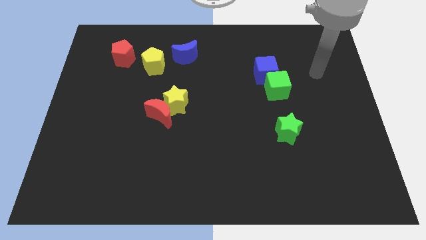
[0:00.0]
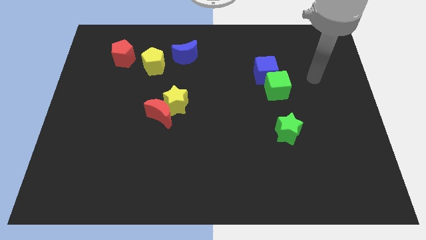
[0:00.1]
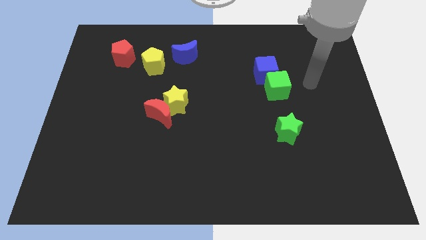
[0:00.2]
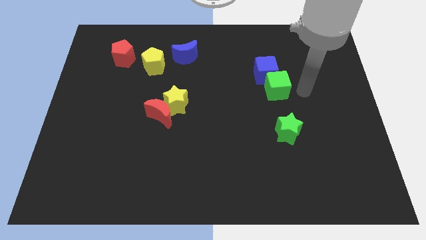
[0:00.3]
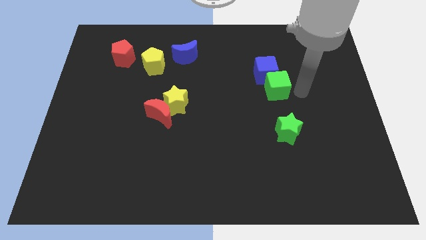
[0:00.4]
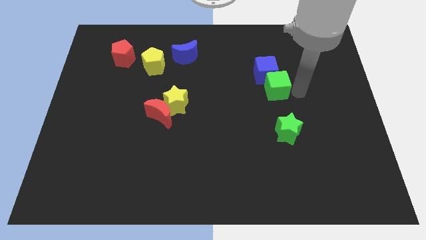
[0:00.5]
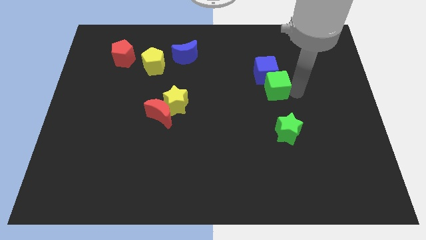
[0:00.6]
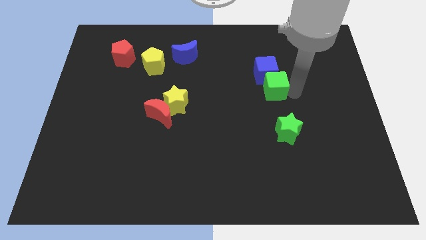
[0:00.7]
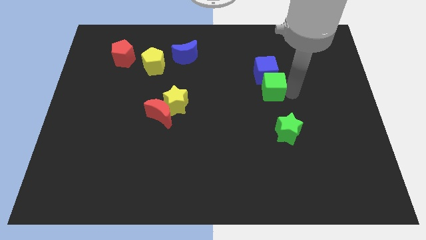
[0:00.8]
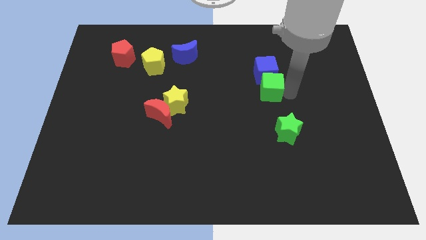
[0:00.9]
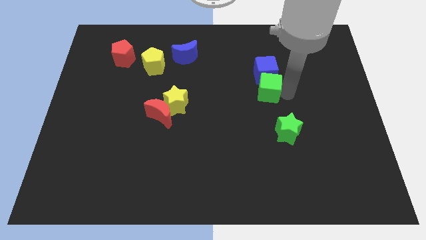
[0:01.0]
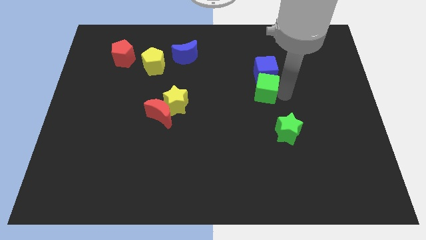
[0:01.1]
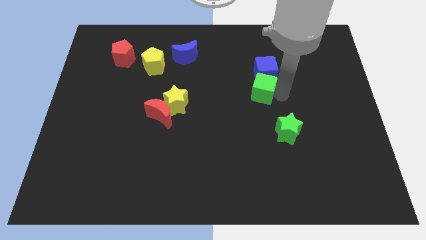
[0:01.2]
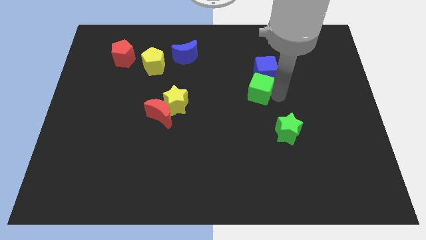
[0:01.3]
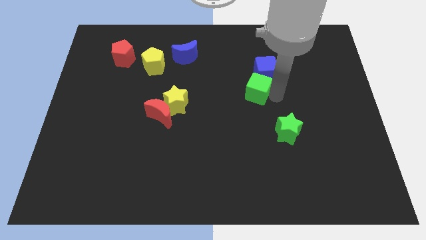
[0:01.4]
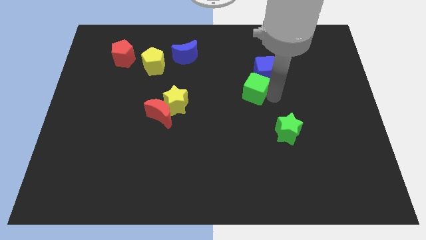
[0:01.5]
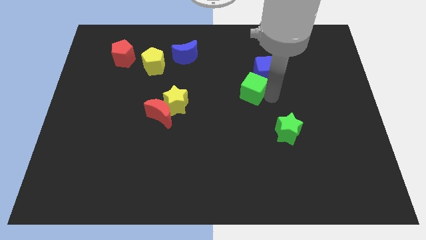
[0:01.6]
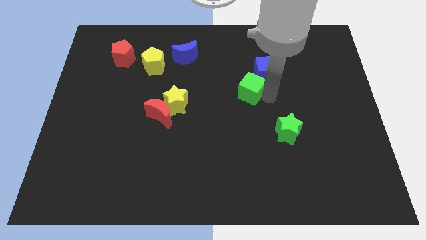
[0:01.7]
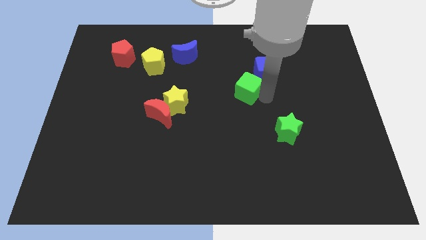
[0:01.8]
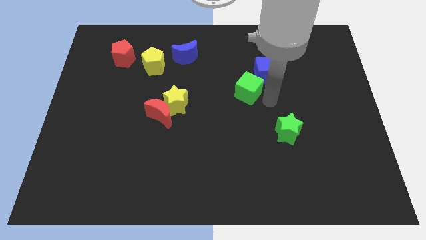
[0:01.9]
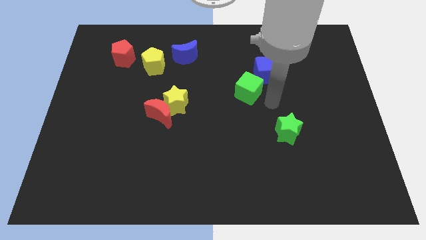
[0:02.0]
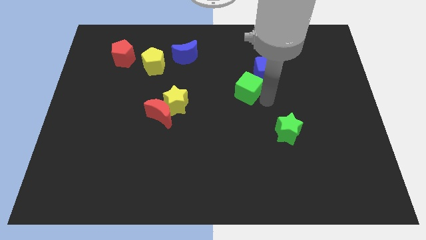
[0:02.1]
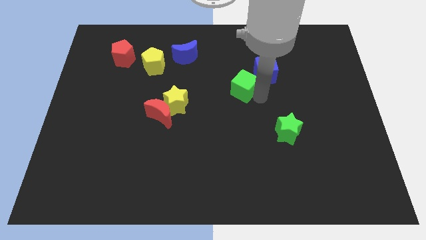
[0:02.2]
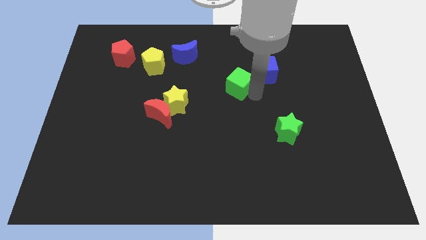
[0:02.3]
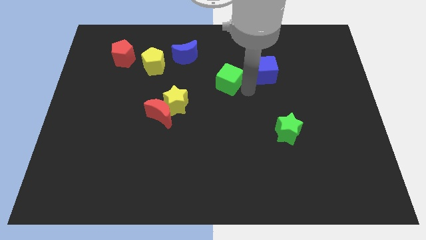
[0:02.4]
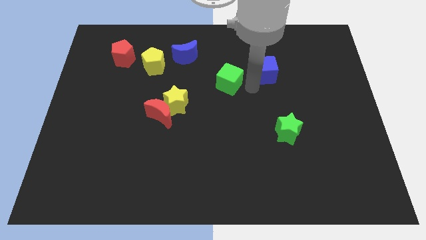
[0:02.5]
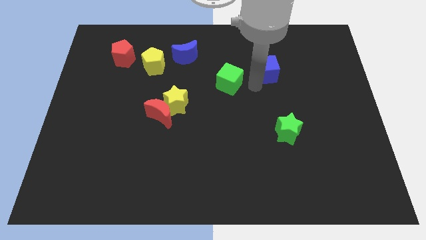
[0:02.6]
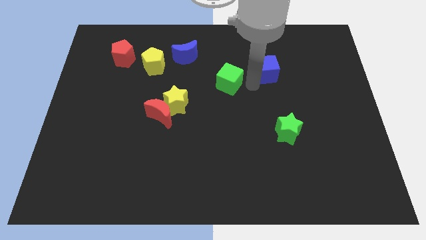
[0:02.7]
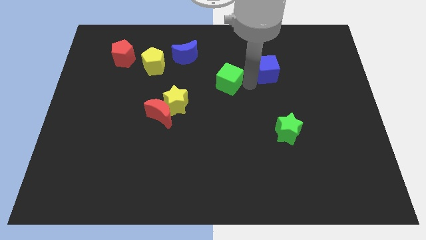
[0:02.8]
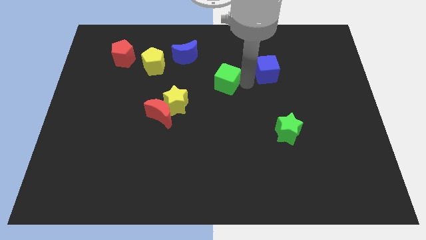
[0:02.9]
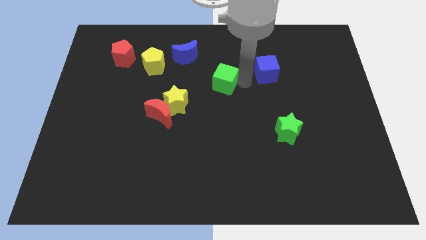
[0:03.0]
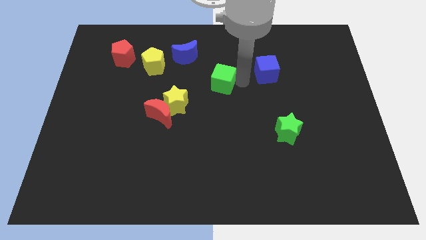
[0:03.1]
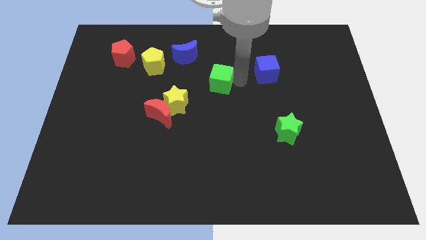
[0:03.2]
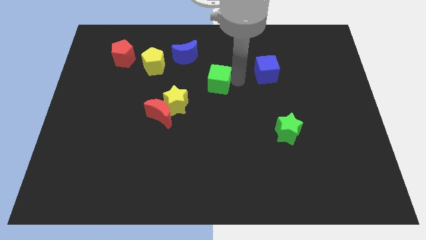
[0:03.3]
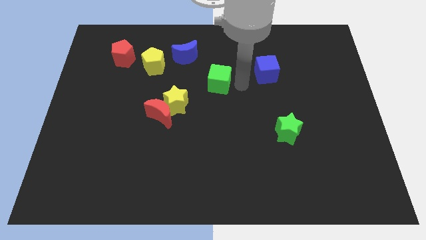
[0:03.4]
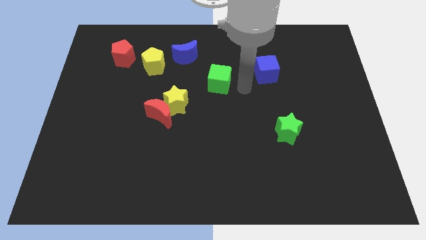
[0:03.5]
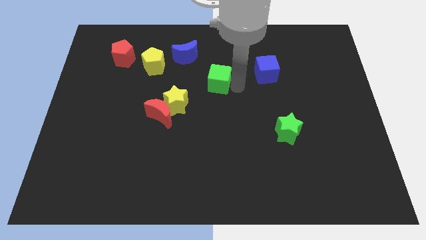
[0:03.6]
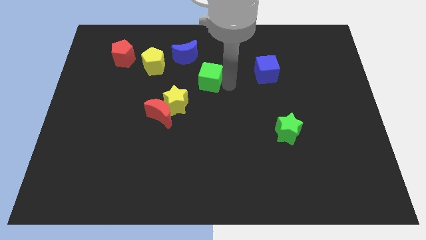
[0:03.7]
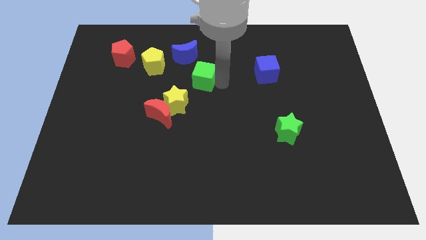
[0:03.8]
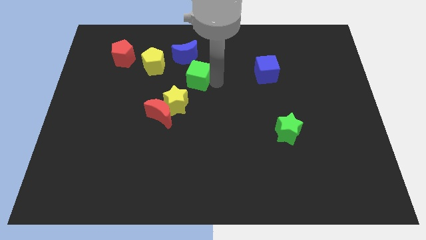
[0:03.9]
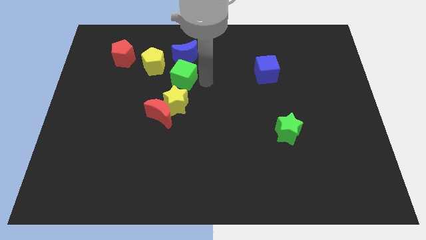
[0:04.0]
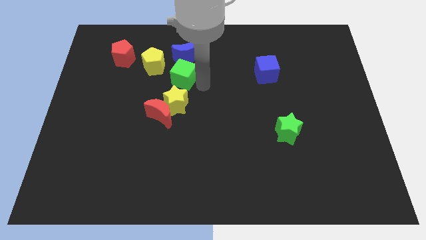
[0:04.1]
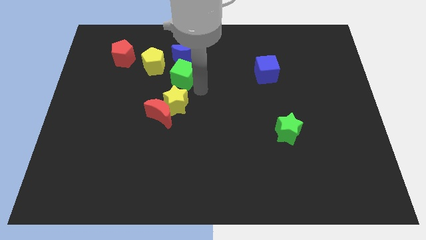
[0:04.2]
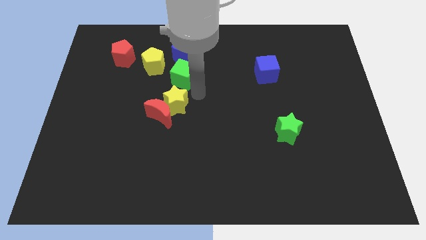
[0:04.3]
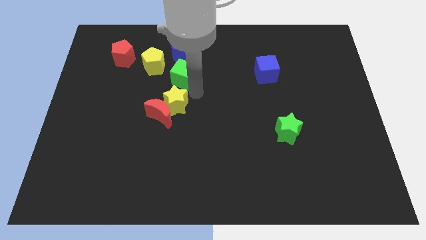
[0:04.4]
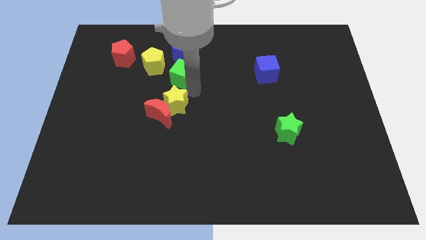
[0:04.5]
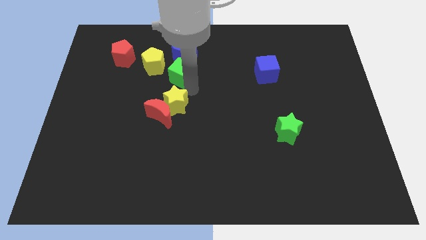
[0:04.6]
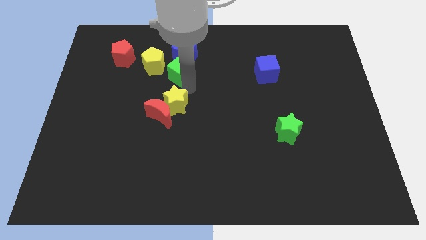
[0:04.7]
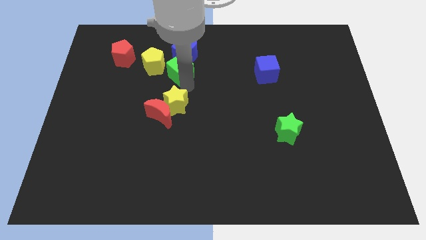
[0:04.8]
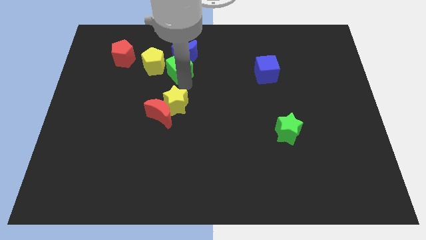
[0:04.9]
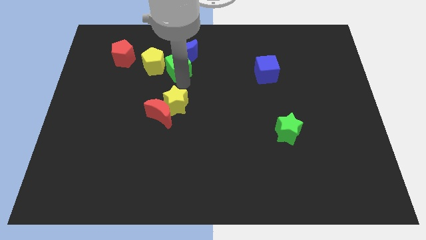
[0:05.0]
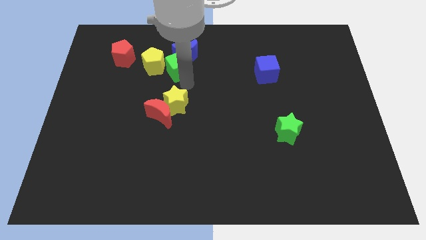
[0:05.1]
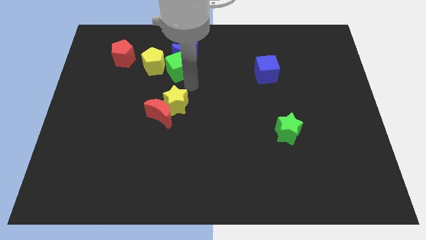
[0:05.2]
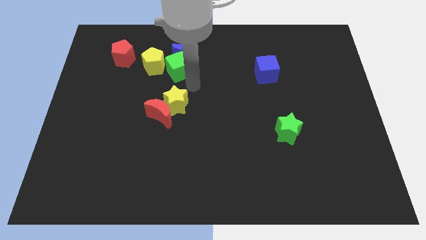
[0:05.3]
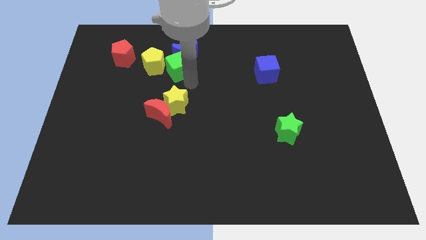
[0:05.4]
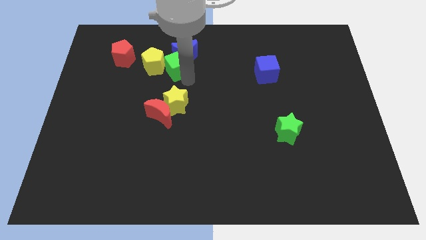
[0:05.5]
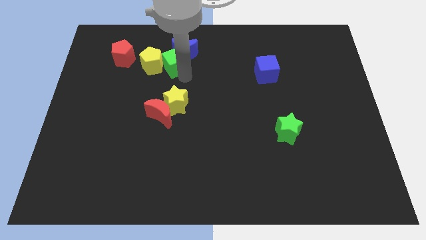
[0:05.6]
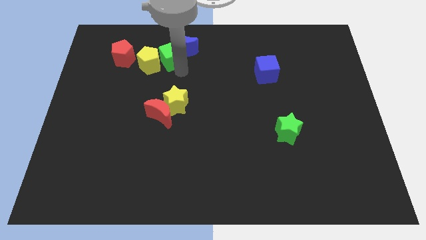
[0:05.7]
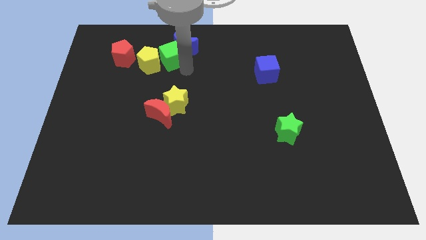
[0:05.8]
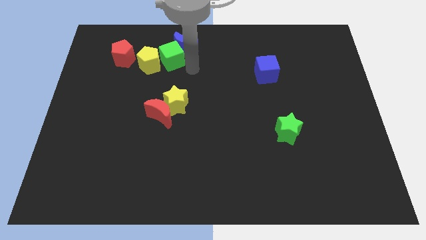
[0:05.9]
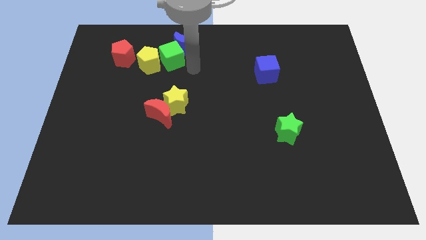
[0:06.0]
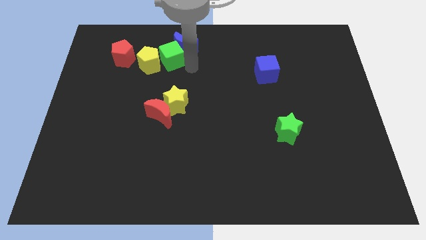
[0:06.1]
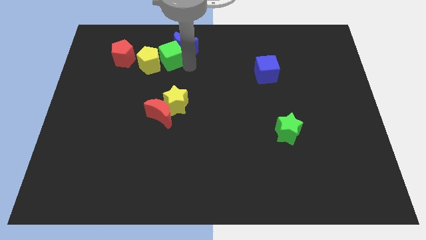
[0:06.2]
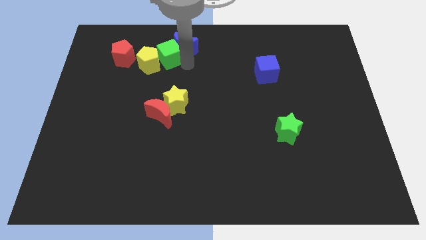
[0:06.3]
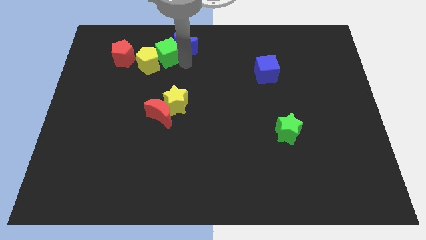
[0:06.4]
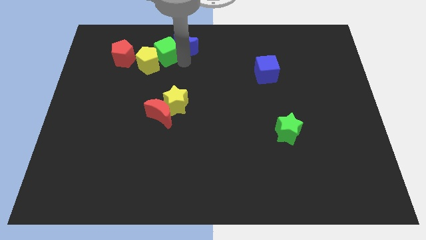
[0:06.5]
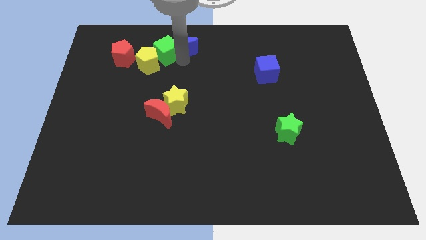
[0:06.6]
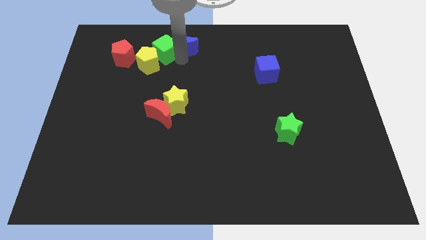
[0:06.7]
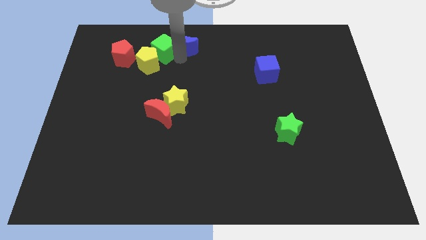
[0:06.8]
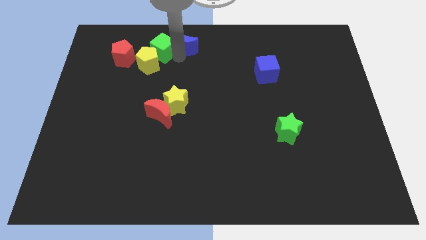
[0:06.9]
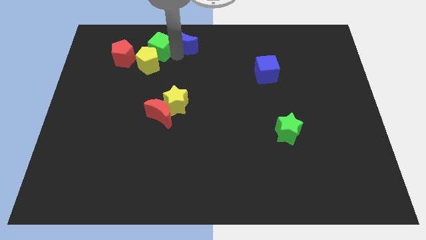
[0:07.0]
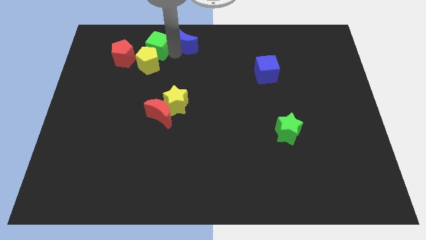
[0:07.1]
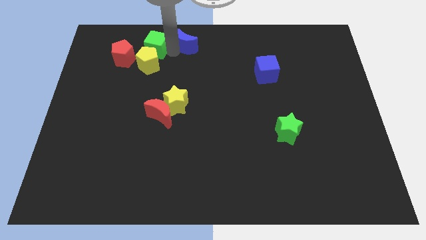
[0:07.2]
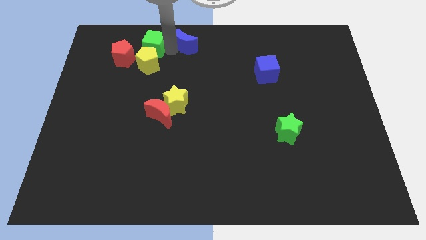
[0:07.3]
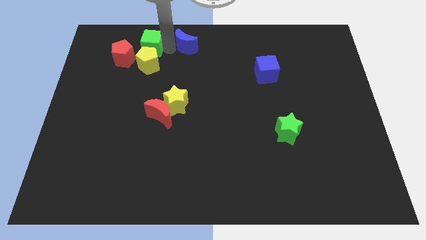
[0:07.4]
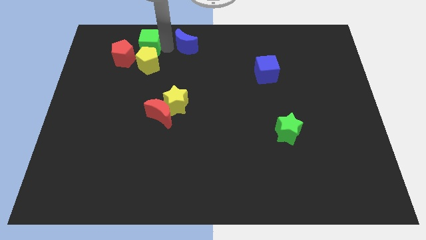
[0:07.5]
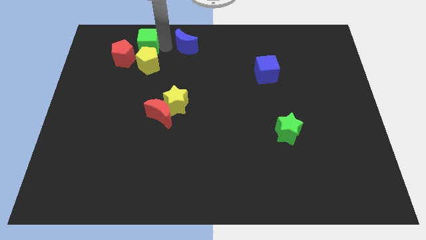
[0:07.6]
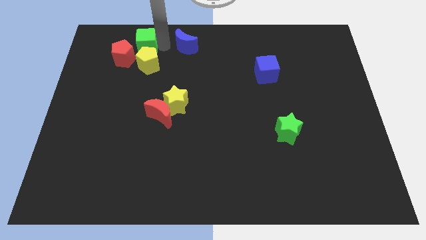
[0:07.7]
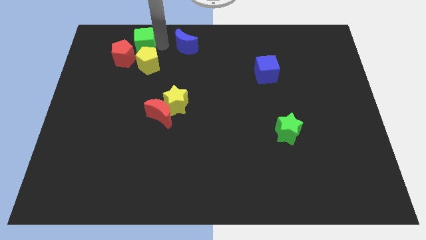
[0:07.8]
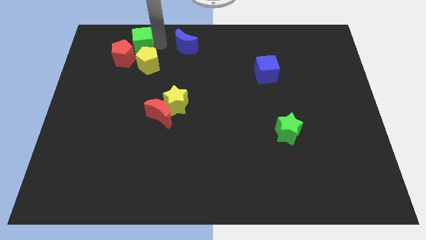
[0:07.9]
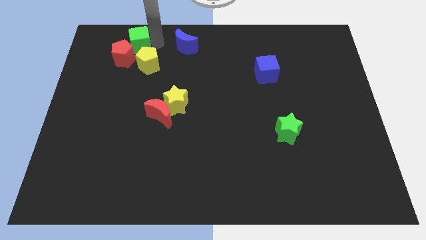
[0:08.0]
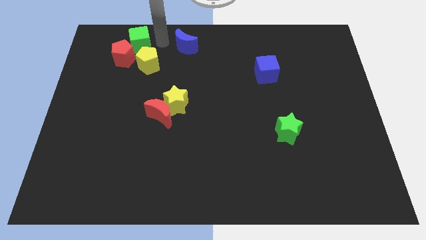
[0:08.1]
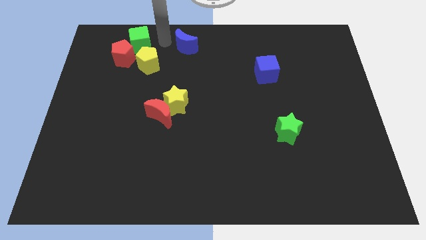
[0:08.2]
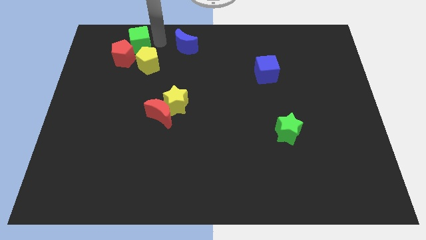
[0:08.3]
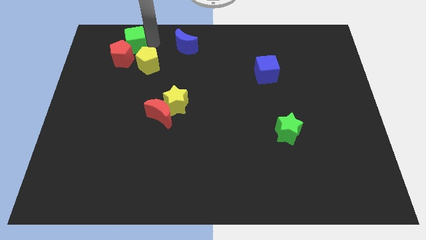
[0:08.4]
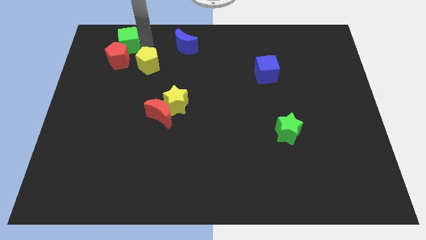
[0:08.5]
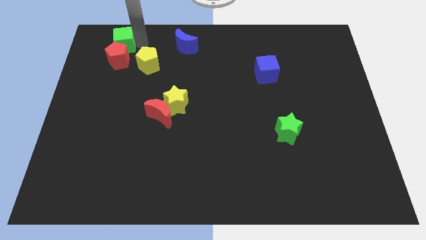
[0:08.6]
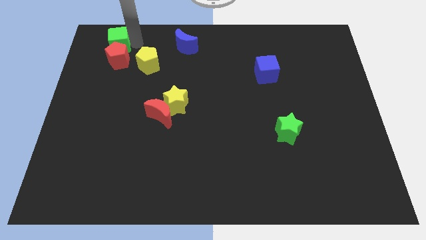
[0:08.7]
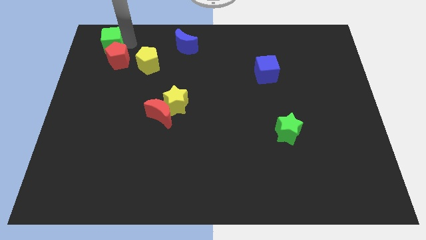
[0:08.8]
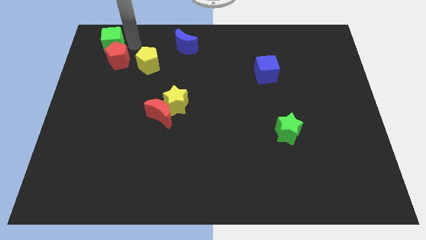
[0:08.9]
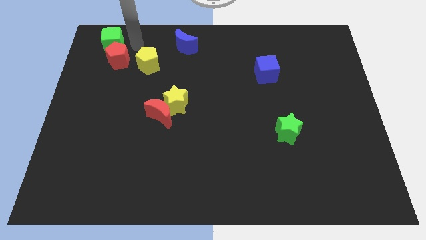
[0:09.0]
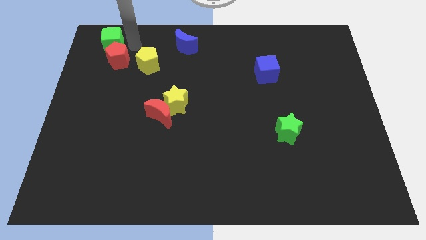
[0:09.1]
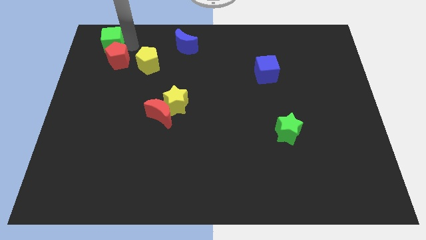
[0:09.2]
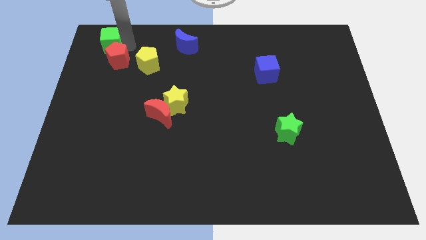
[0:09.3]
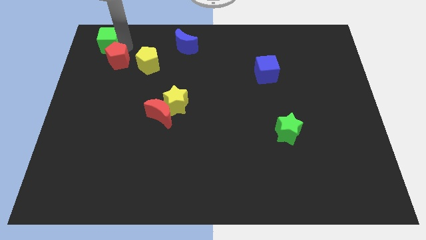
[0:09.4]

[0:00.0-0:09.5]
push the green cube to the top left of the board
